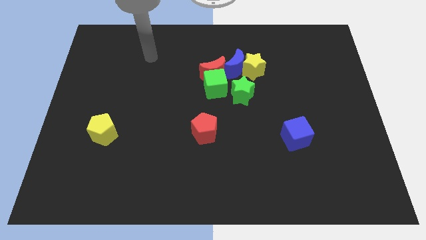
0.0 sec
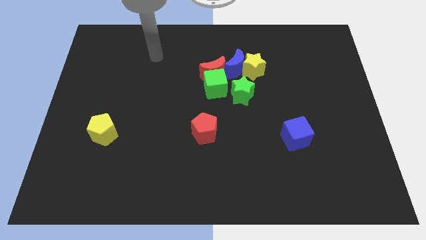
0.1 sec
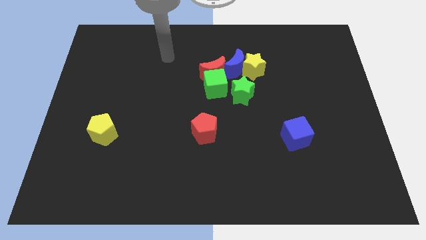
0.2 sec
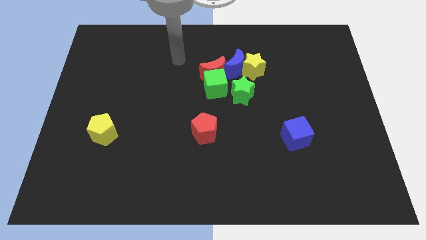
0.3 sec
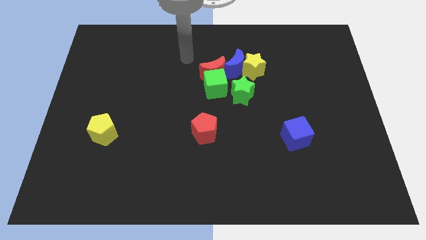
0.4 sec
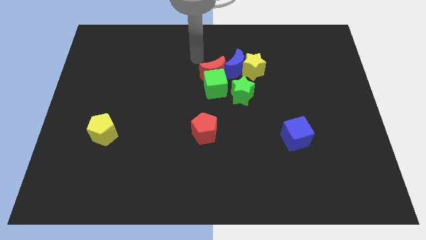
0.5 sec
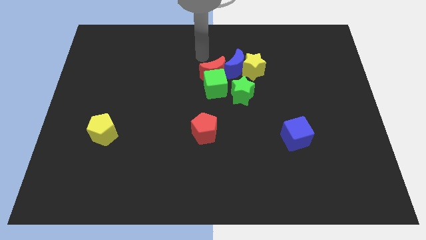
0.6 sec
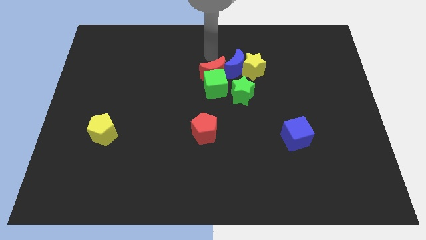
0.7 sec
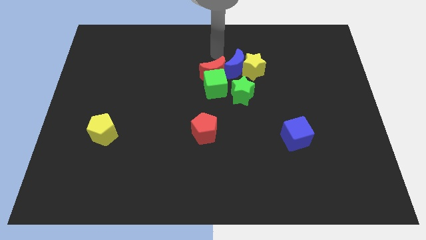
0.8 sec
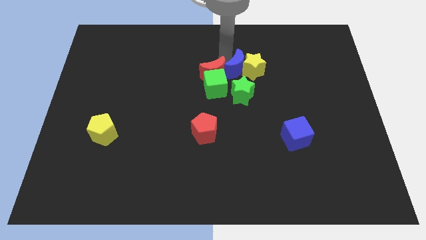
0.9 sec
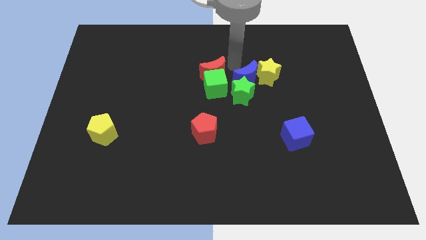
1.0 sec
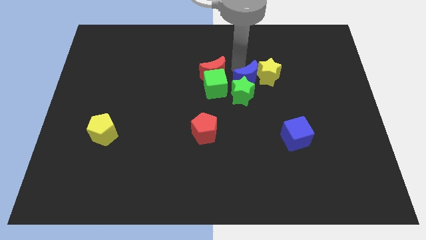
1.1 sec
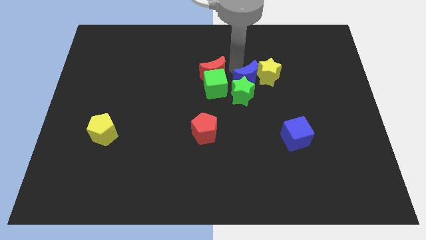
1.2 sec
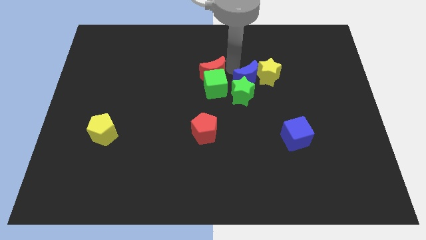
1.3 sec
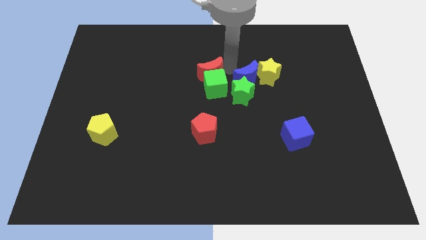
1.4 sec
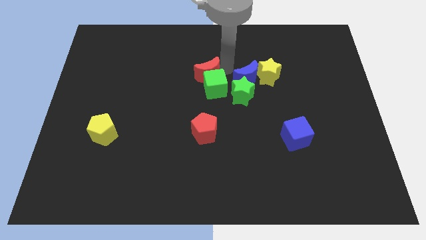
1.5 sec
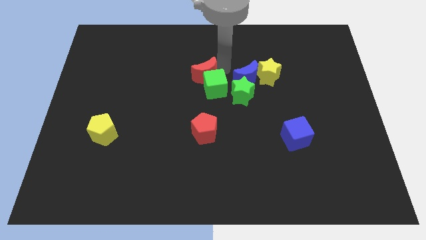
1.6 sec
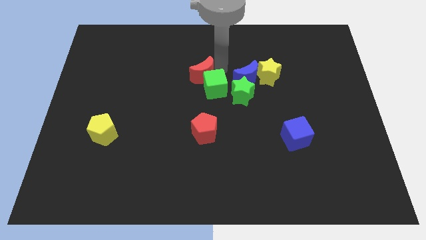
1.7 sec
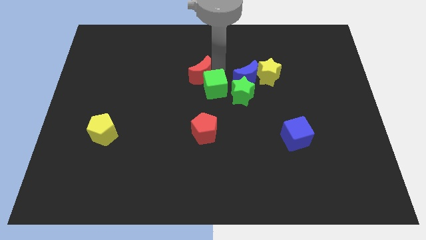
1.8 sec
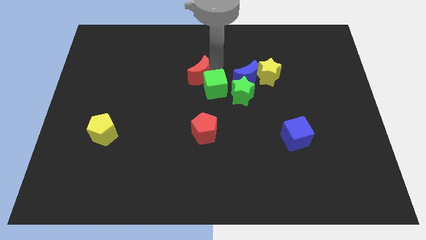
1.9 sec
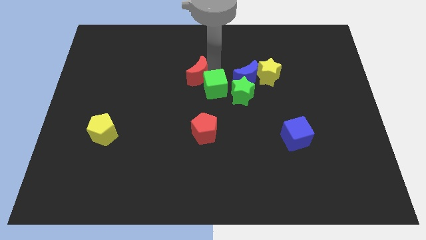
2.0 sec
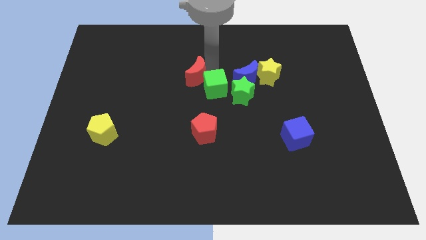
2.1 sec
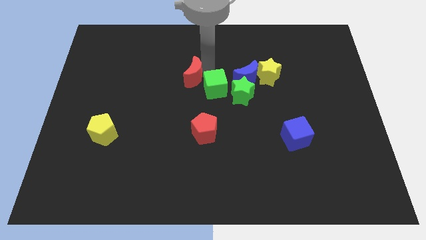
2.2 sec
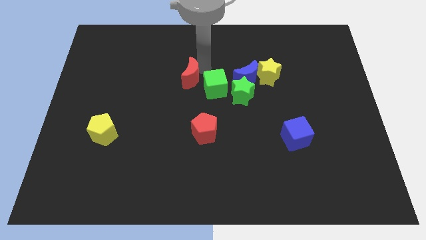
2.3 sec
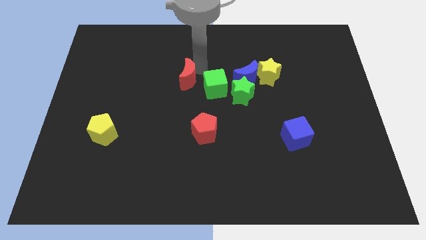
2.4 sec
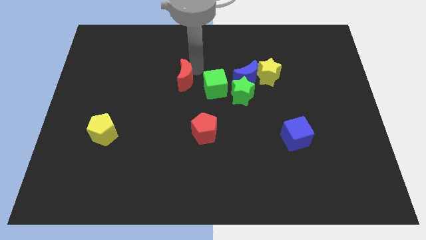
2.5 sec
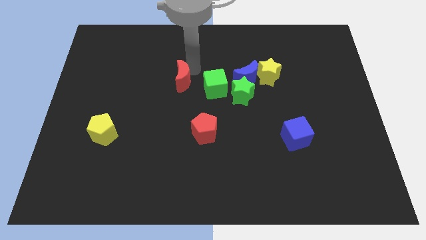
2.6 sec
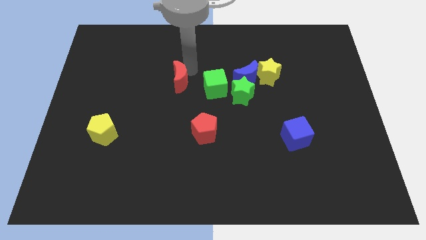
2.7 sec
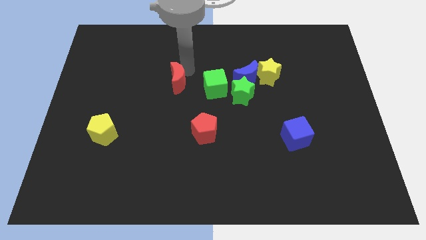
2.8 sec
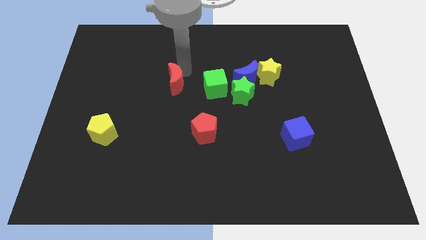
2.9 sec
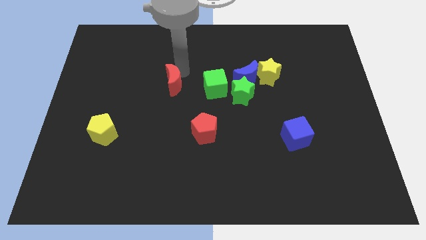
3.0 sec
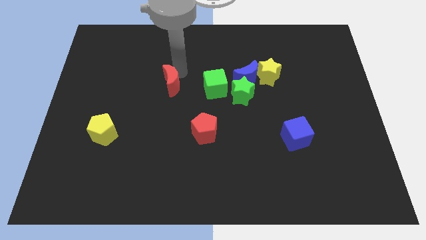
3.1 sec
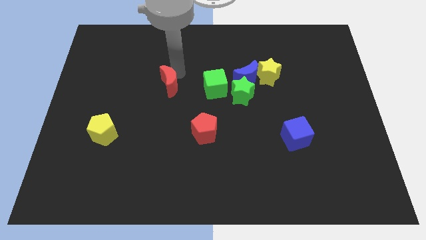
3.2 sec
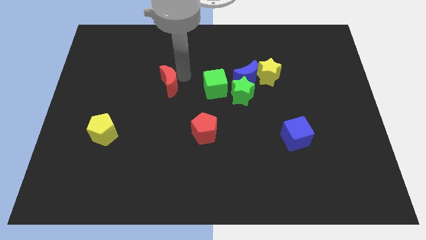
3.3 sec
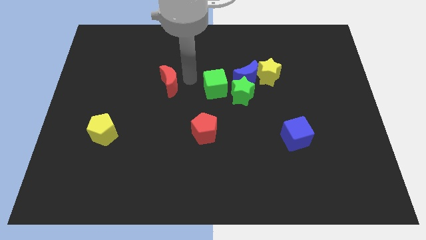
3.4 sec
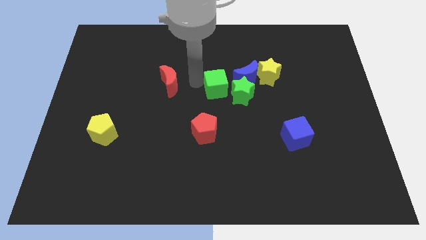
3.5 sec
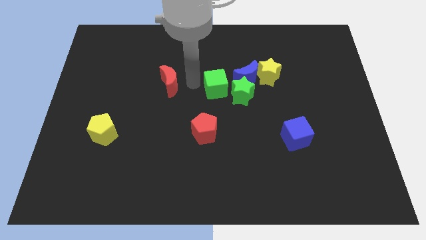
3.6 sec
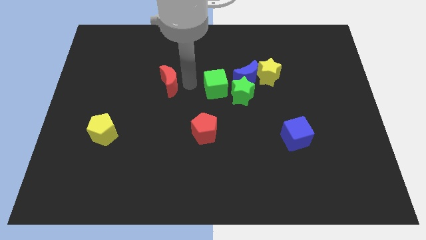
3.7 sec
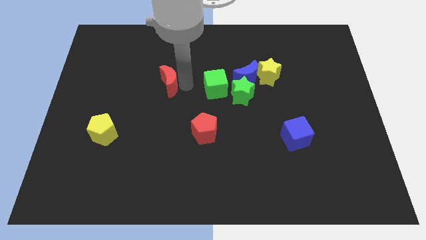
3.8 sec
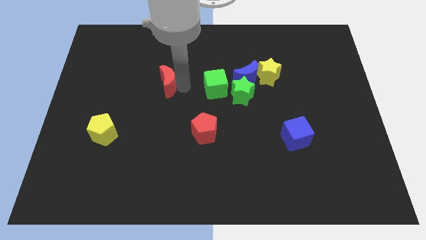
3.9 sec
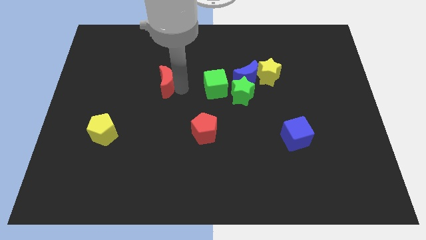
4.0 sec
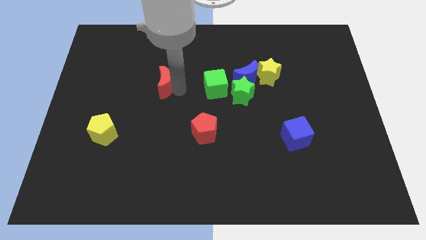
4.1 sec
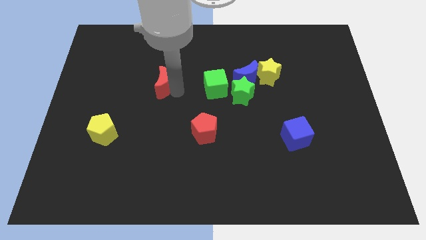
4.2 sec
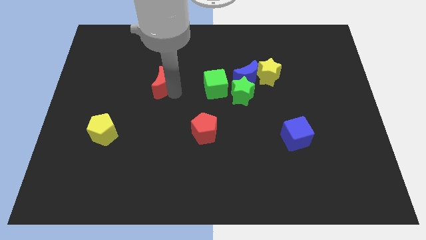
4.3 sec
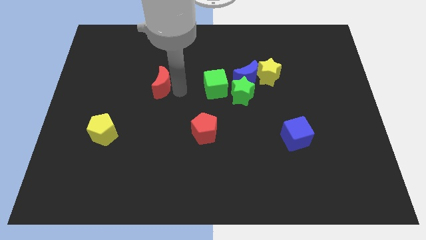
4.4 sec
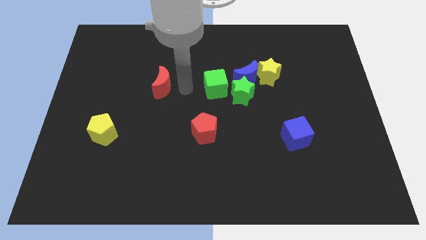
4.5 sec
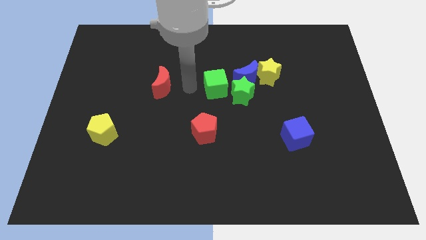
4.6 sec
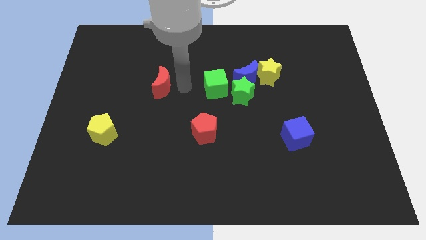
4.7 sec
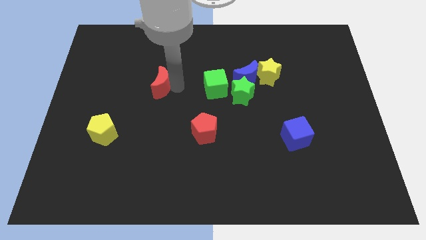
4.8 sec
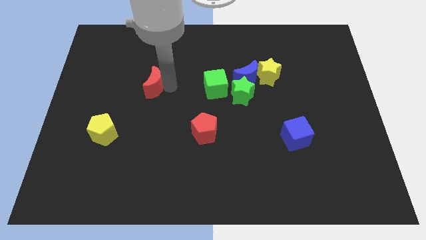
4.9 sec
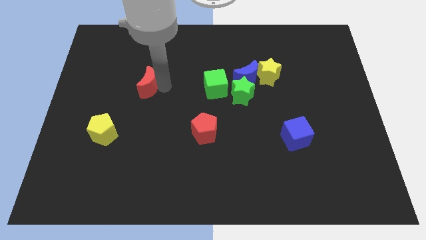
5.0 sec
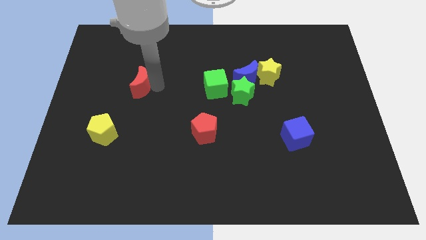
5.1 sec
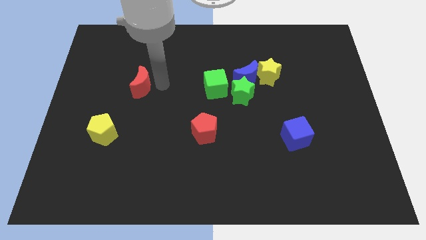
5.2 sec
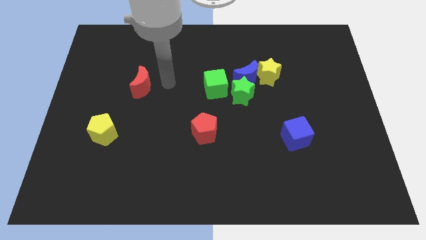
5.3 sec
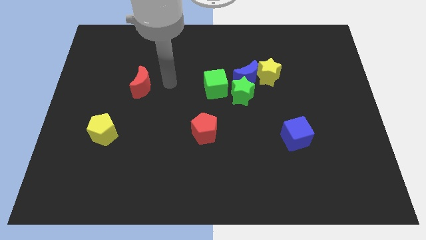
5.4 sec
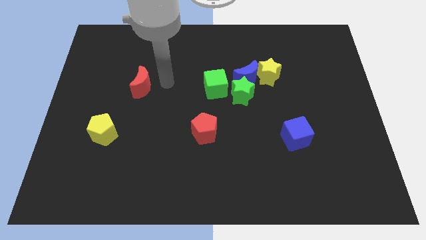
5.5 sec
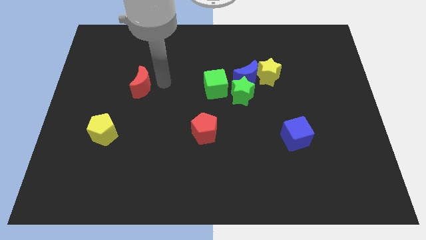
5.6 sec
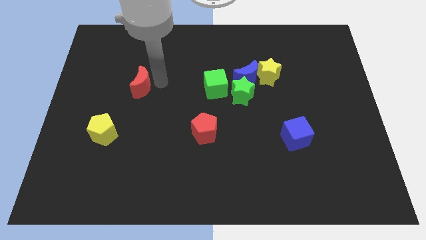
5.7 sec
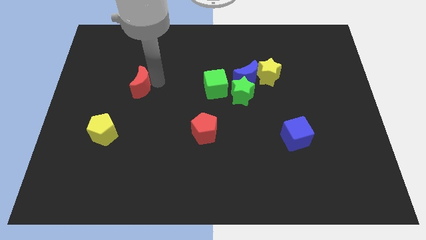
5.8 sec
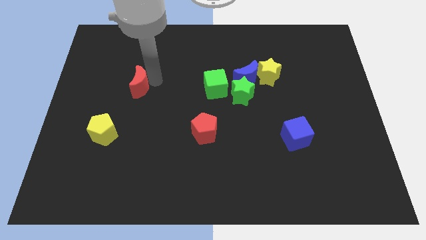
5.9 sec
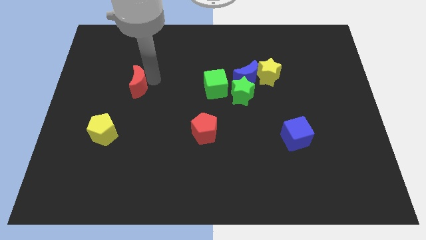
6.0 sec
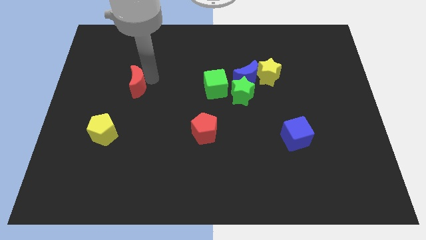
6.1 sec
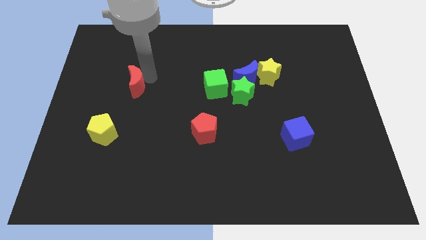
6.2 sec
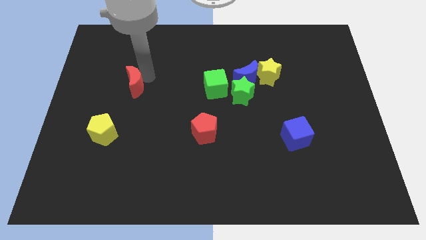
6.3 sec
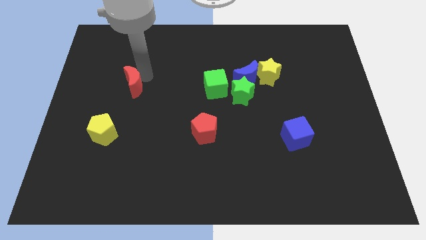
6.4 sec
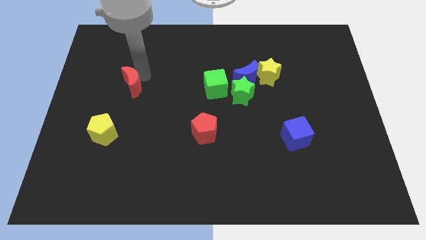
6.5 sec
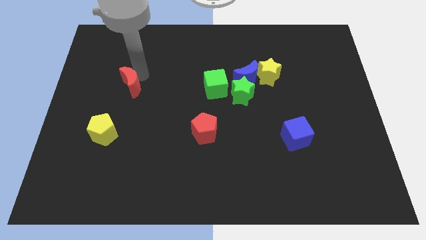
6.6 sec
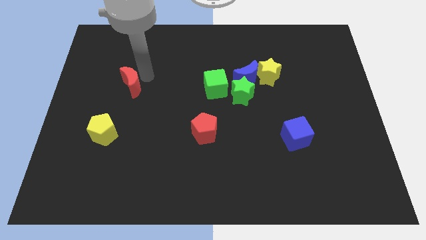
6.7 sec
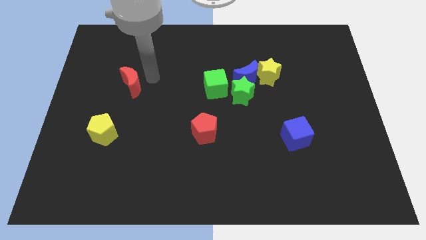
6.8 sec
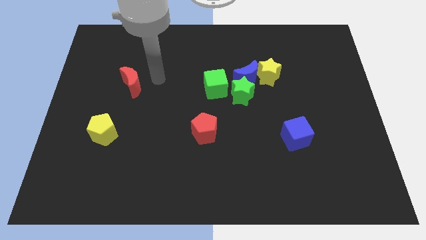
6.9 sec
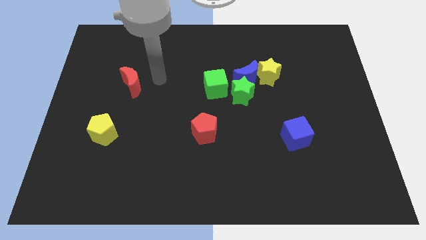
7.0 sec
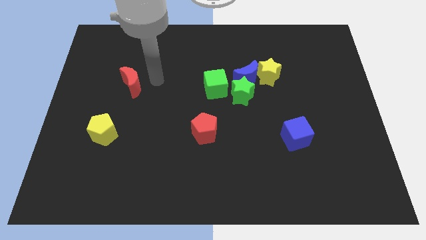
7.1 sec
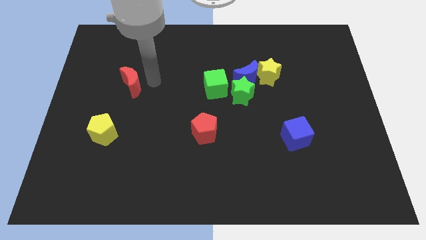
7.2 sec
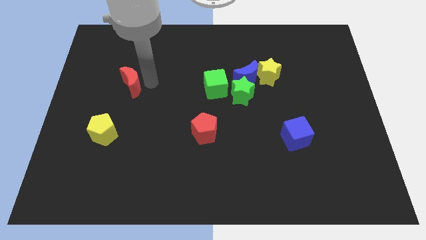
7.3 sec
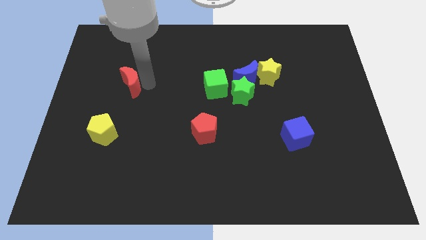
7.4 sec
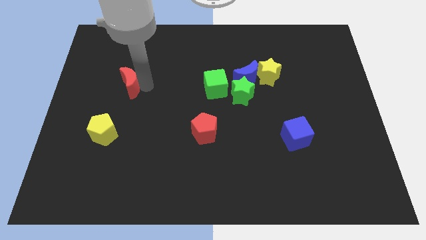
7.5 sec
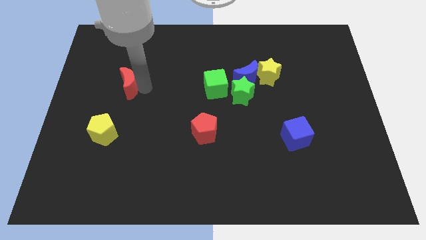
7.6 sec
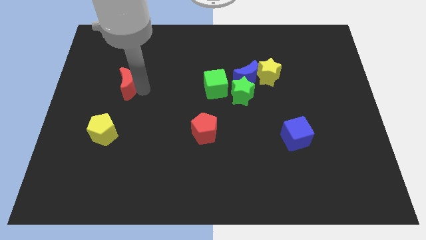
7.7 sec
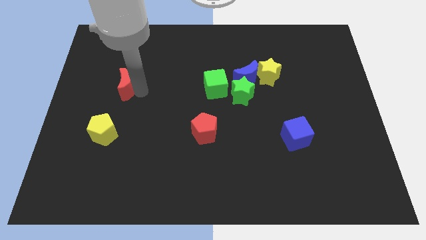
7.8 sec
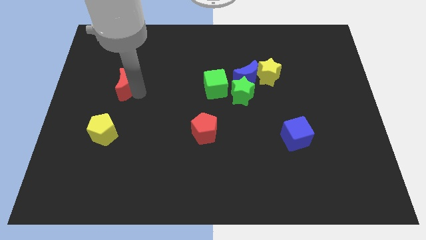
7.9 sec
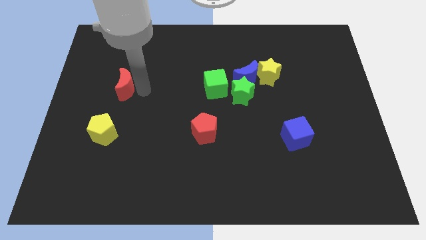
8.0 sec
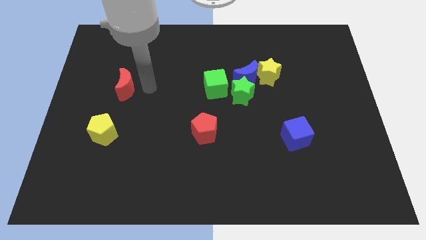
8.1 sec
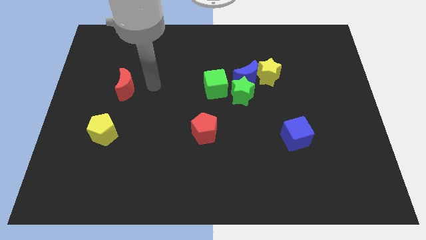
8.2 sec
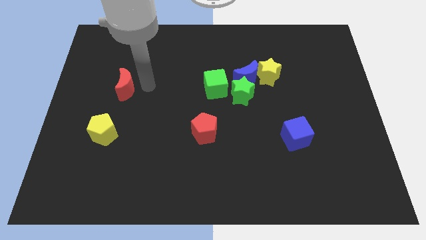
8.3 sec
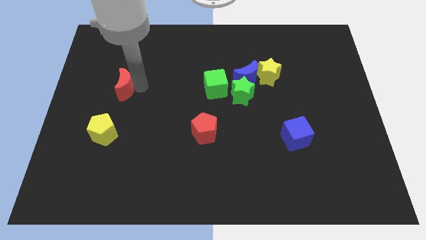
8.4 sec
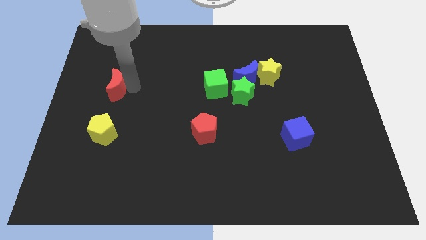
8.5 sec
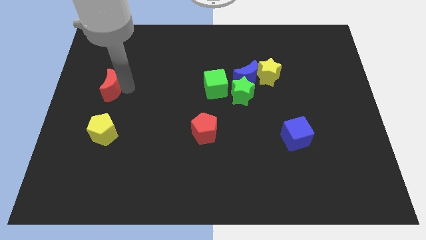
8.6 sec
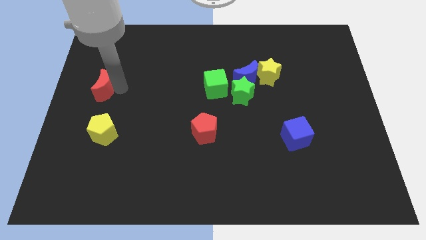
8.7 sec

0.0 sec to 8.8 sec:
slide the red moon to the left side
